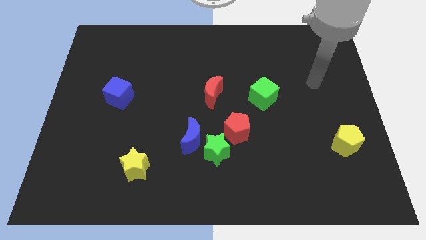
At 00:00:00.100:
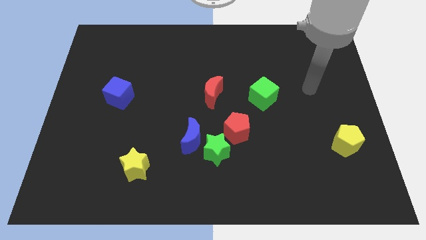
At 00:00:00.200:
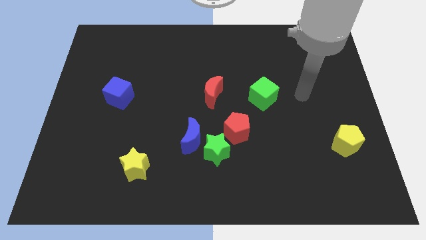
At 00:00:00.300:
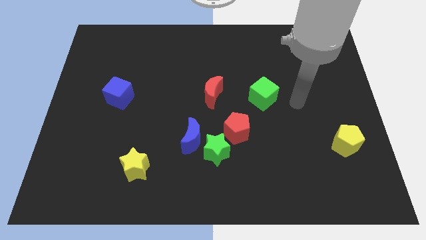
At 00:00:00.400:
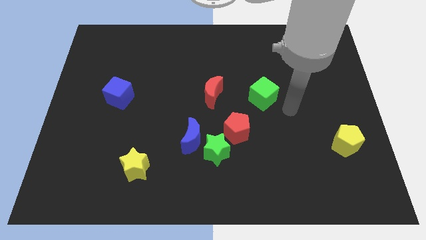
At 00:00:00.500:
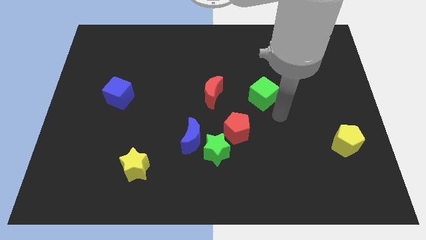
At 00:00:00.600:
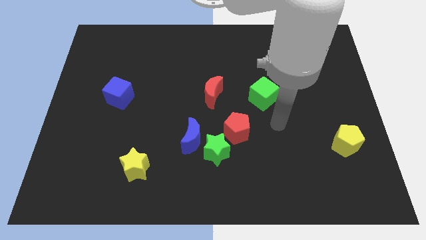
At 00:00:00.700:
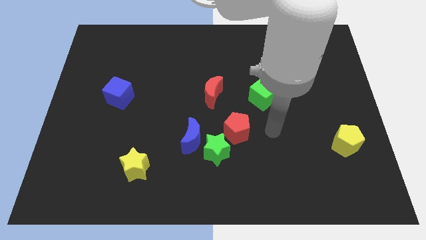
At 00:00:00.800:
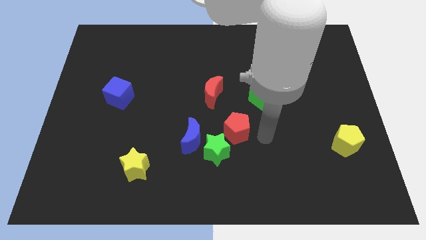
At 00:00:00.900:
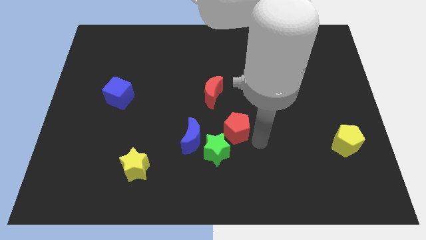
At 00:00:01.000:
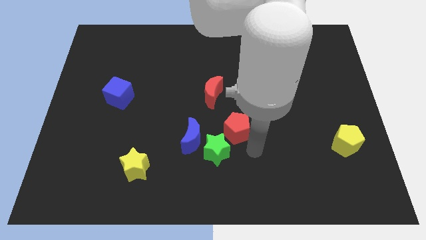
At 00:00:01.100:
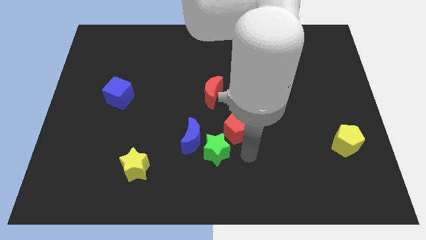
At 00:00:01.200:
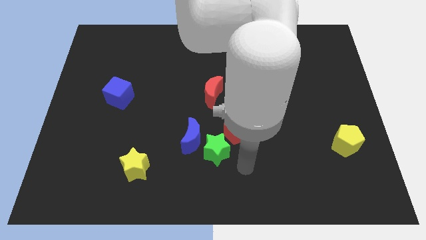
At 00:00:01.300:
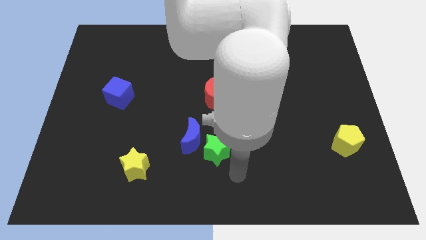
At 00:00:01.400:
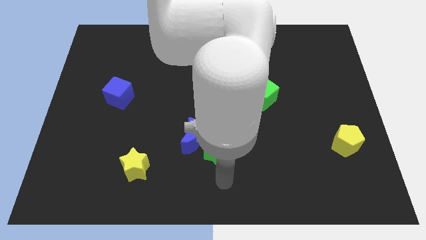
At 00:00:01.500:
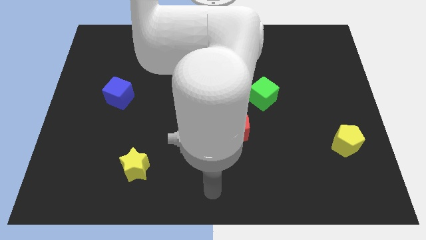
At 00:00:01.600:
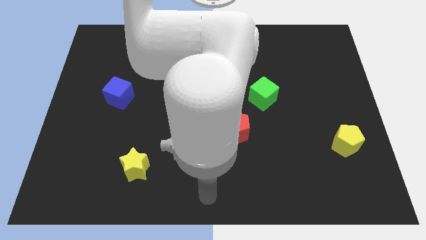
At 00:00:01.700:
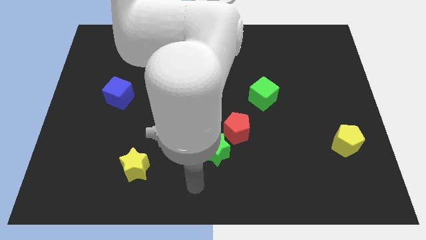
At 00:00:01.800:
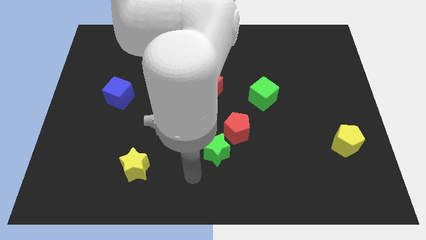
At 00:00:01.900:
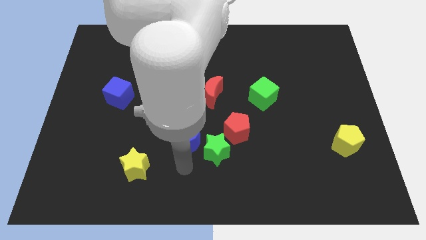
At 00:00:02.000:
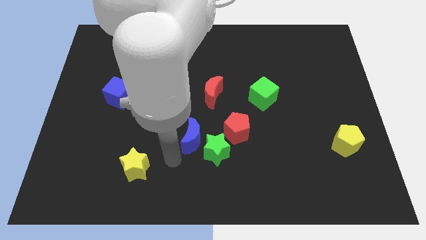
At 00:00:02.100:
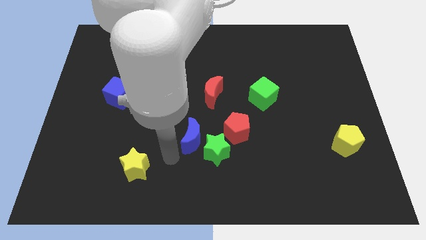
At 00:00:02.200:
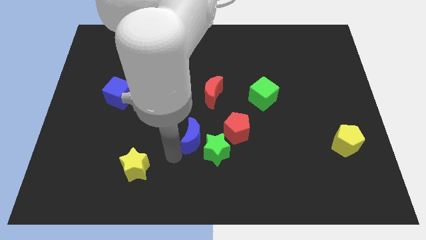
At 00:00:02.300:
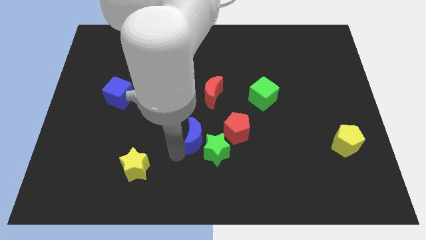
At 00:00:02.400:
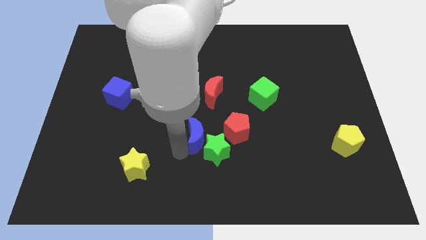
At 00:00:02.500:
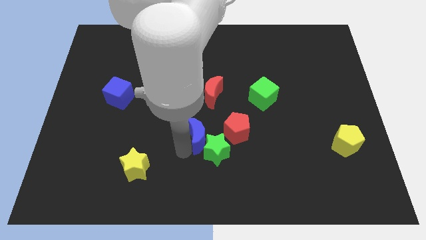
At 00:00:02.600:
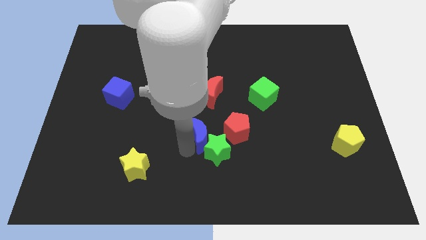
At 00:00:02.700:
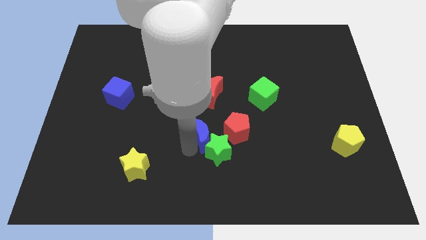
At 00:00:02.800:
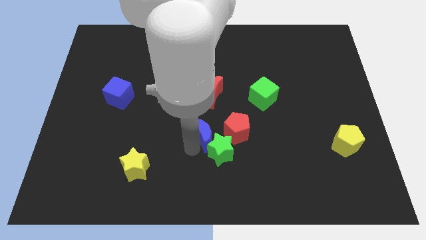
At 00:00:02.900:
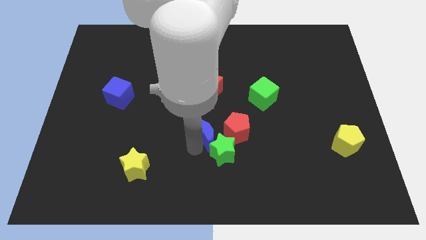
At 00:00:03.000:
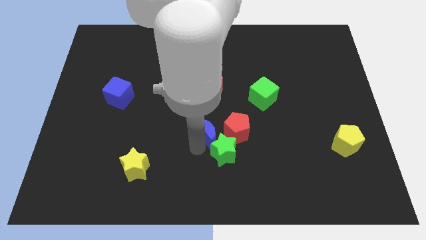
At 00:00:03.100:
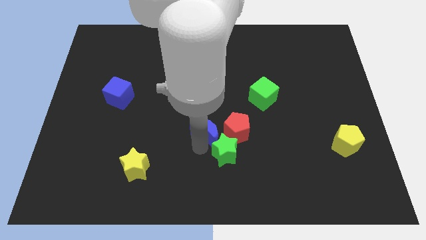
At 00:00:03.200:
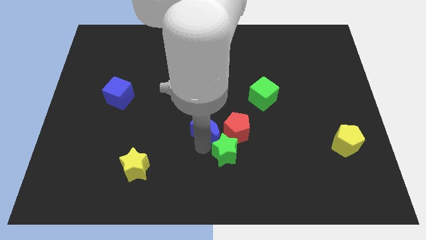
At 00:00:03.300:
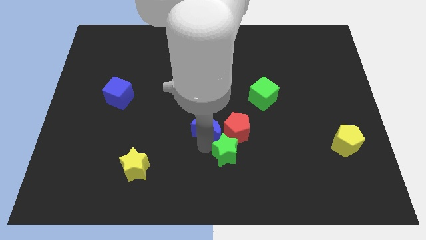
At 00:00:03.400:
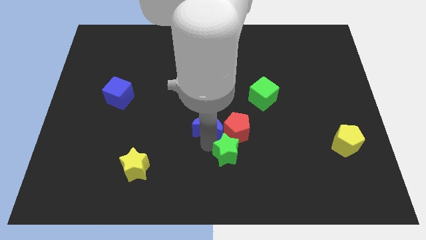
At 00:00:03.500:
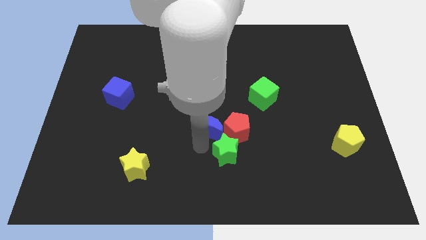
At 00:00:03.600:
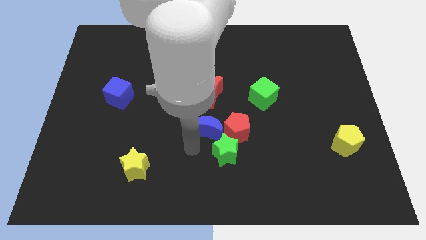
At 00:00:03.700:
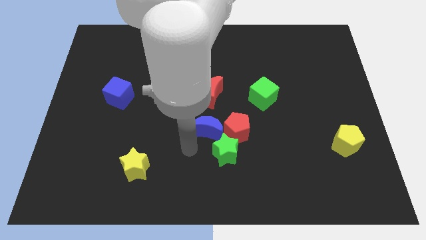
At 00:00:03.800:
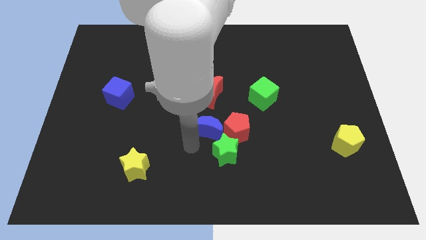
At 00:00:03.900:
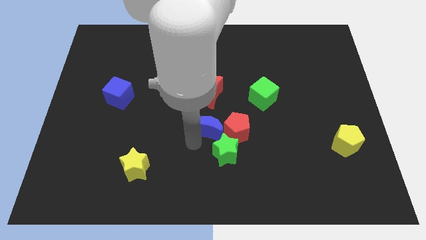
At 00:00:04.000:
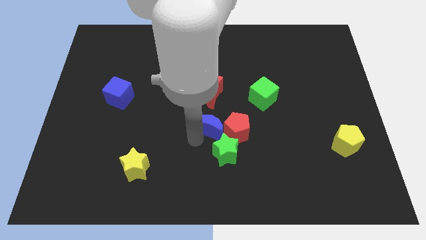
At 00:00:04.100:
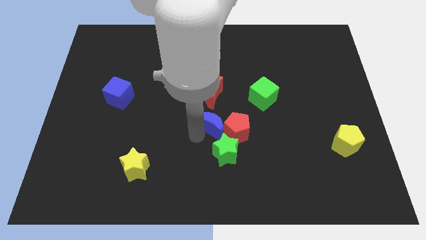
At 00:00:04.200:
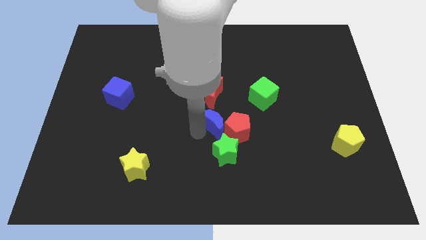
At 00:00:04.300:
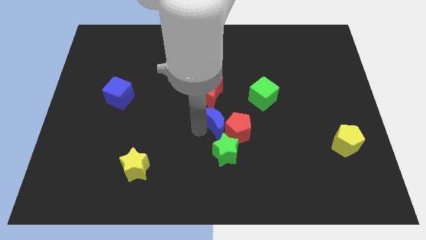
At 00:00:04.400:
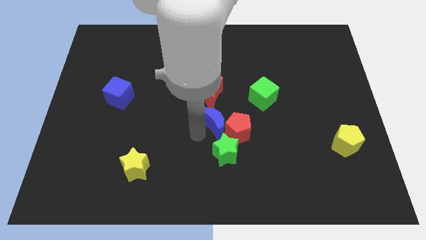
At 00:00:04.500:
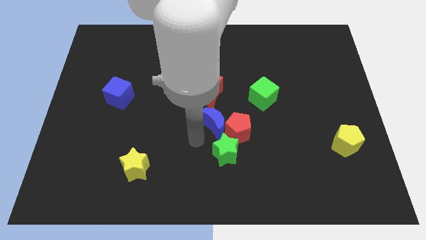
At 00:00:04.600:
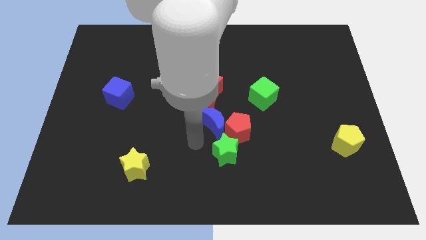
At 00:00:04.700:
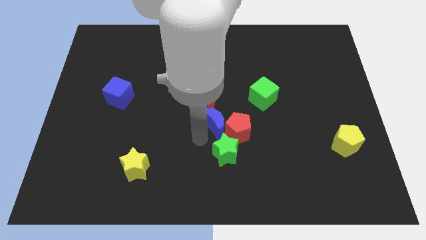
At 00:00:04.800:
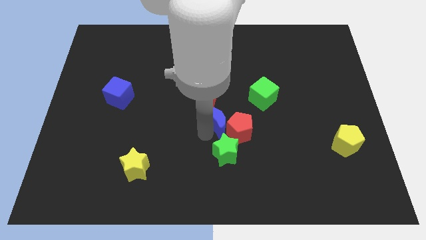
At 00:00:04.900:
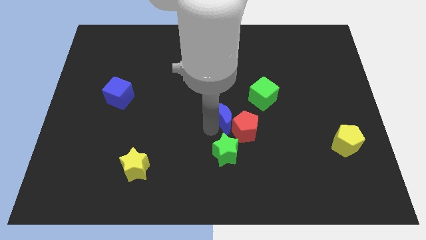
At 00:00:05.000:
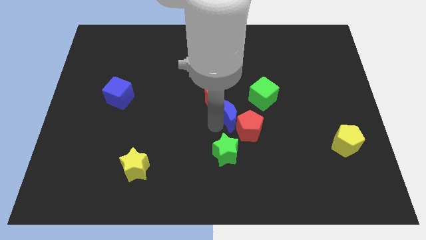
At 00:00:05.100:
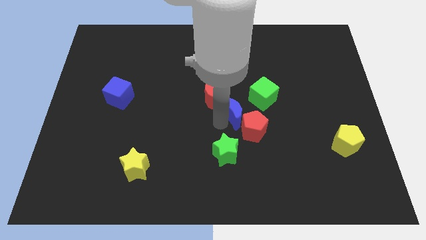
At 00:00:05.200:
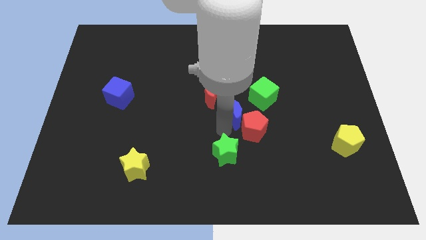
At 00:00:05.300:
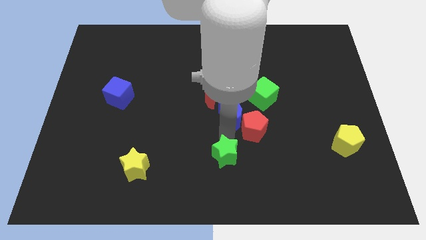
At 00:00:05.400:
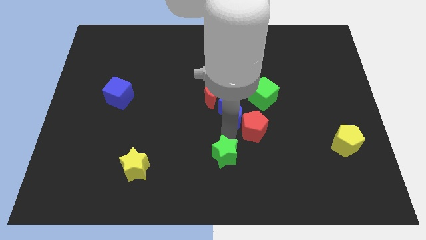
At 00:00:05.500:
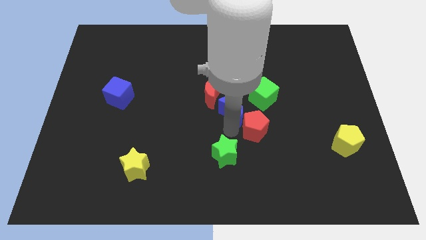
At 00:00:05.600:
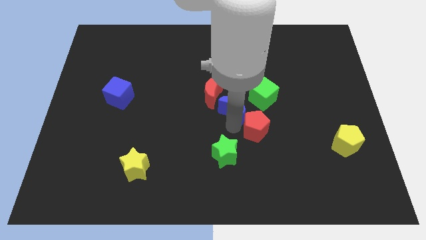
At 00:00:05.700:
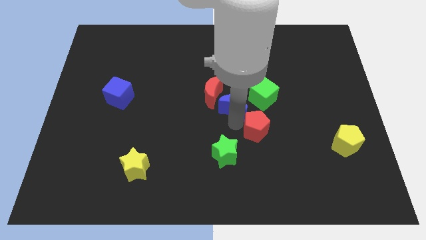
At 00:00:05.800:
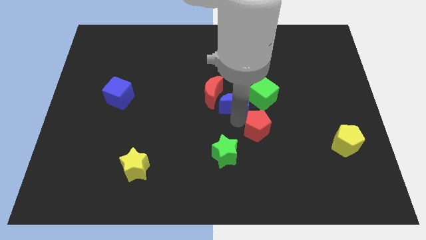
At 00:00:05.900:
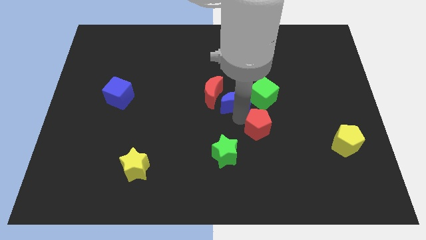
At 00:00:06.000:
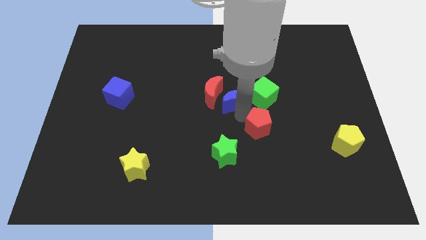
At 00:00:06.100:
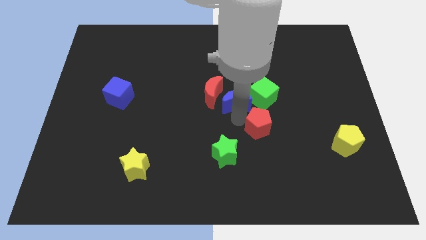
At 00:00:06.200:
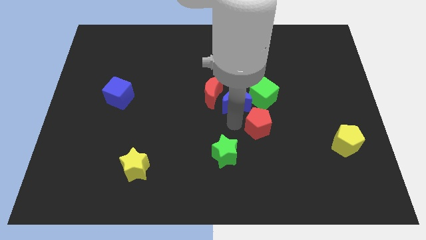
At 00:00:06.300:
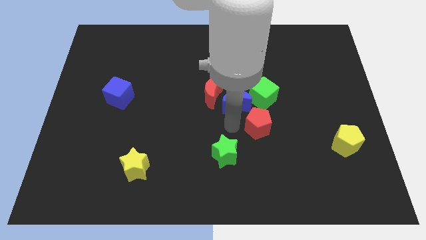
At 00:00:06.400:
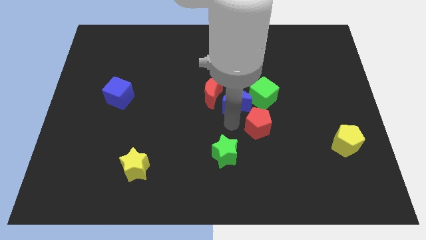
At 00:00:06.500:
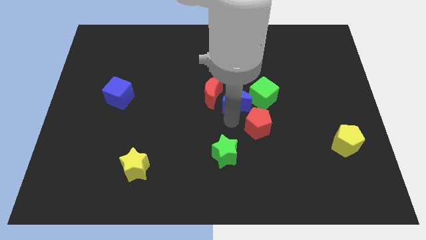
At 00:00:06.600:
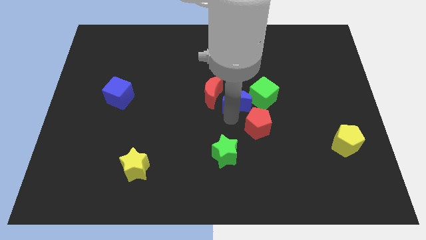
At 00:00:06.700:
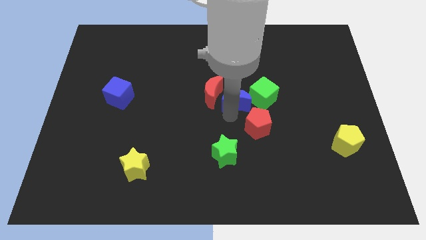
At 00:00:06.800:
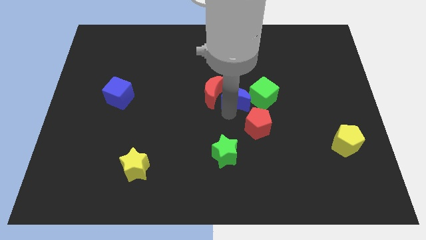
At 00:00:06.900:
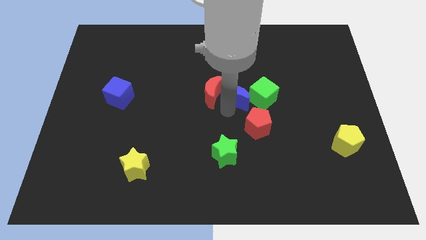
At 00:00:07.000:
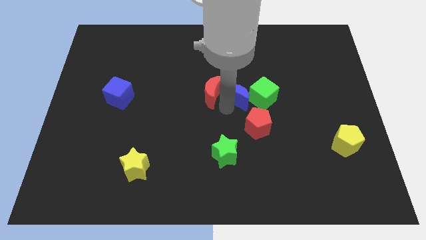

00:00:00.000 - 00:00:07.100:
move the blue moon to the top left of the green cube

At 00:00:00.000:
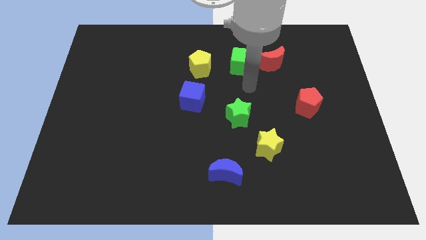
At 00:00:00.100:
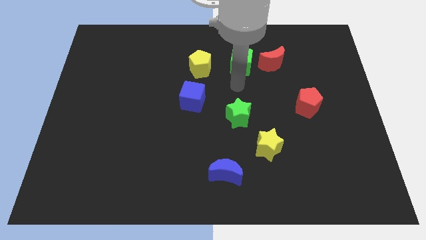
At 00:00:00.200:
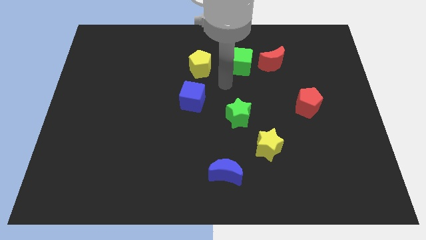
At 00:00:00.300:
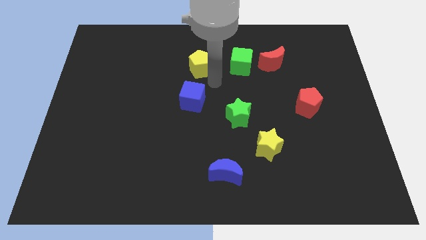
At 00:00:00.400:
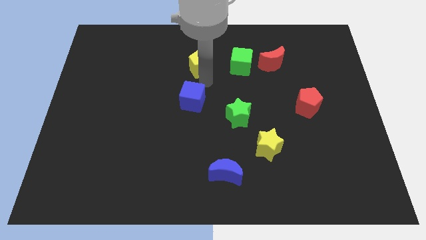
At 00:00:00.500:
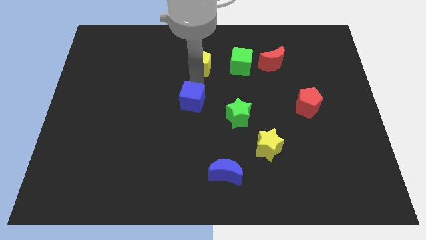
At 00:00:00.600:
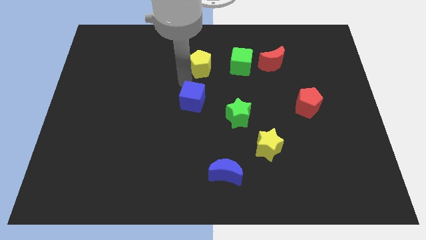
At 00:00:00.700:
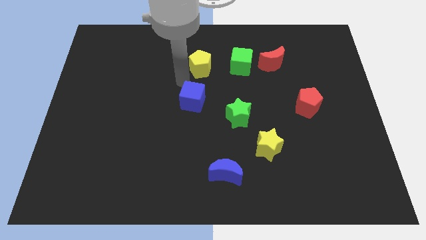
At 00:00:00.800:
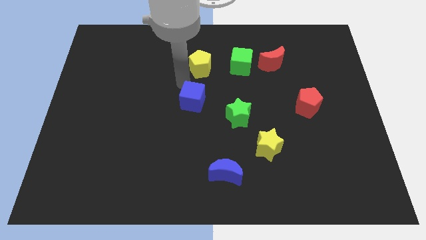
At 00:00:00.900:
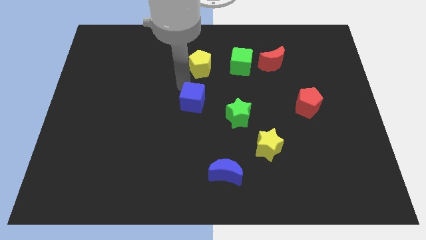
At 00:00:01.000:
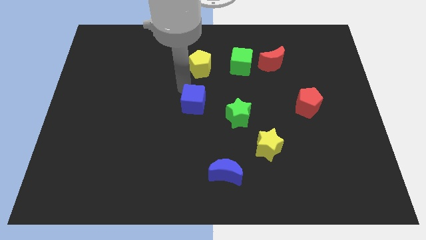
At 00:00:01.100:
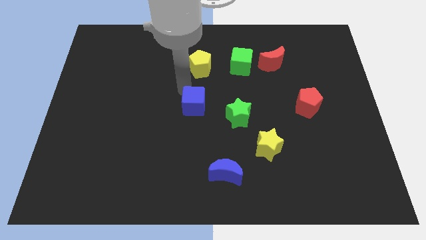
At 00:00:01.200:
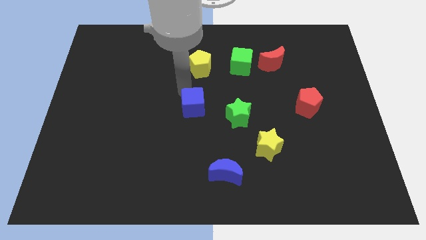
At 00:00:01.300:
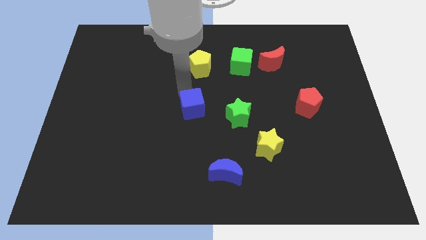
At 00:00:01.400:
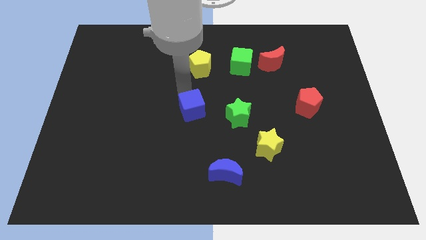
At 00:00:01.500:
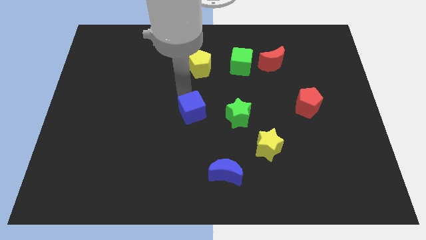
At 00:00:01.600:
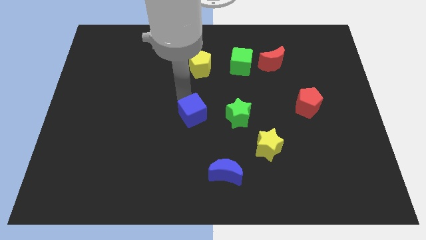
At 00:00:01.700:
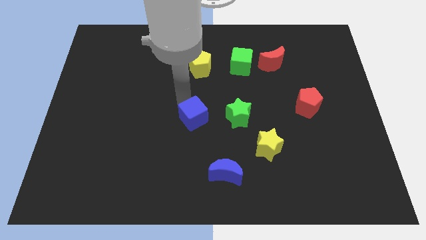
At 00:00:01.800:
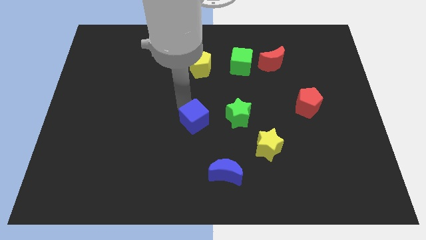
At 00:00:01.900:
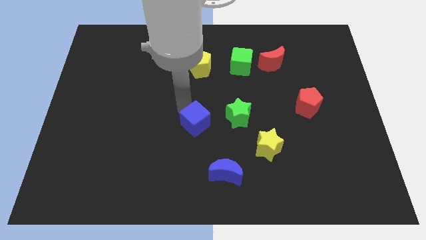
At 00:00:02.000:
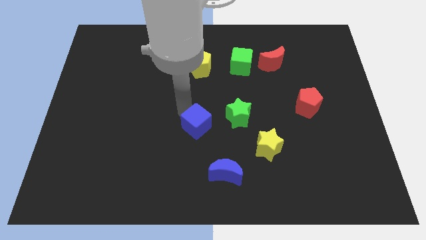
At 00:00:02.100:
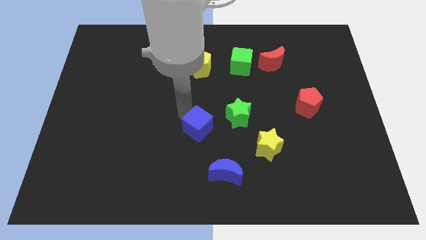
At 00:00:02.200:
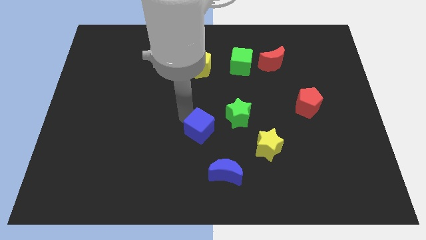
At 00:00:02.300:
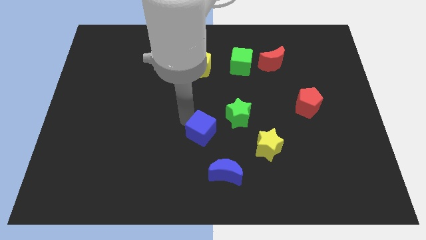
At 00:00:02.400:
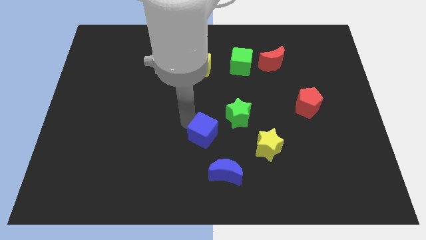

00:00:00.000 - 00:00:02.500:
move the blue cube above the blue moon
